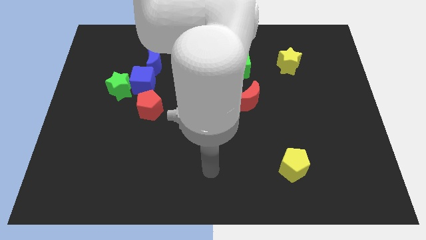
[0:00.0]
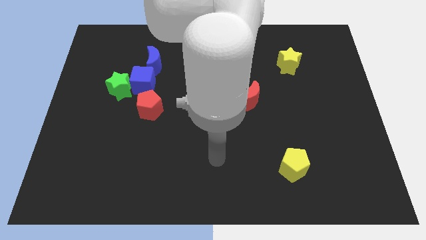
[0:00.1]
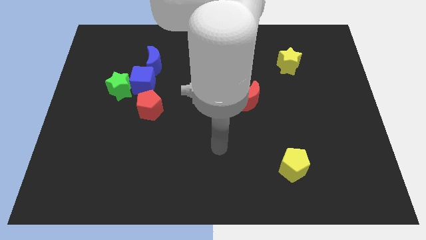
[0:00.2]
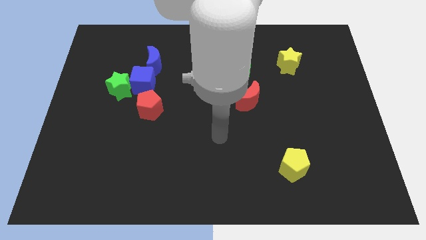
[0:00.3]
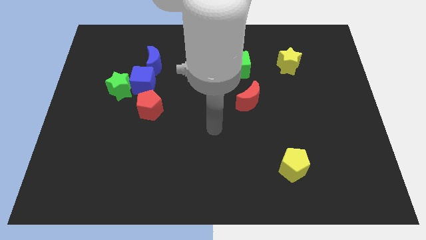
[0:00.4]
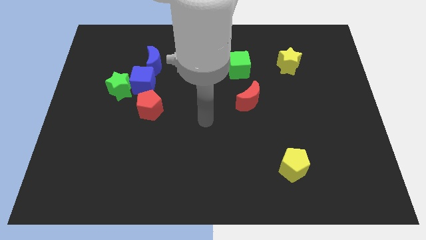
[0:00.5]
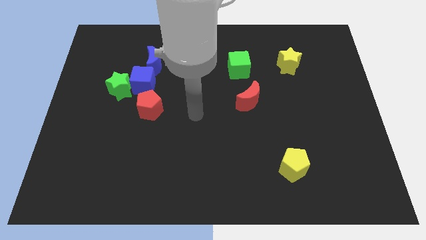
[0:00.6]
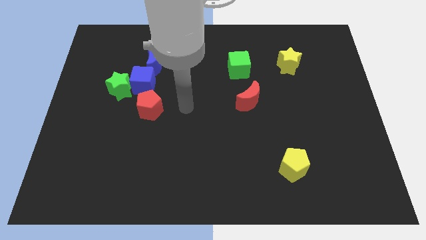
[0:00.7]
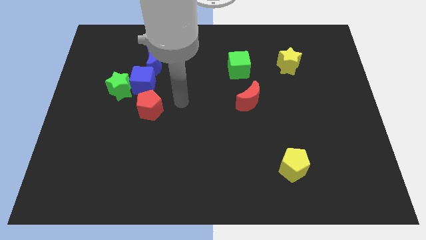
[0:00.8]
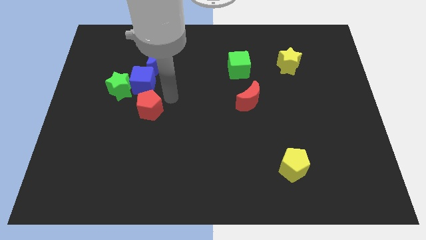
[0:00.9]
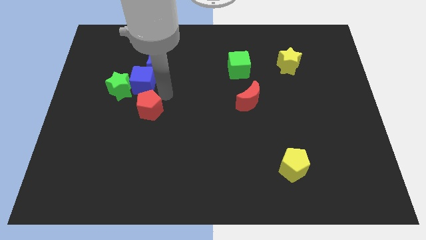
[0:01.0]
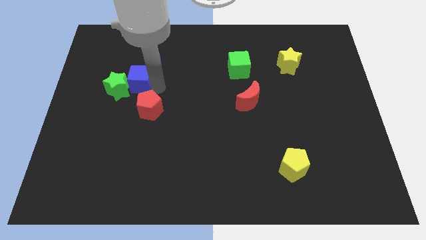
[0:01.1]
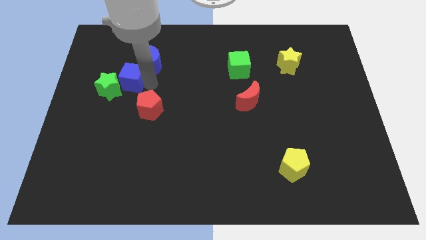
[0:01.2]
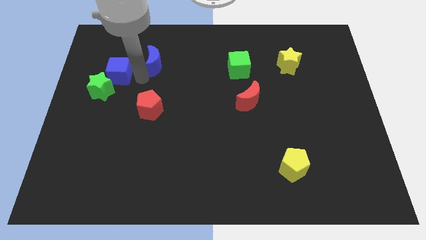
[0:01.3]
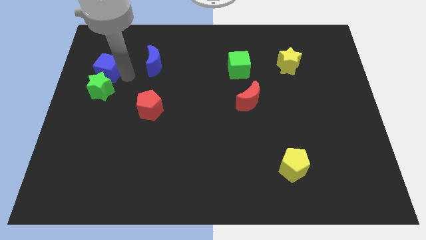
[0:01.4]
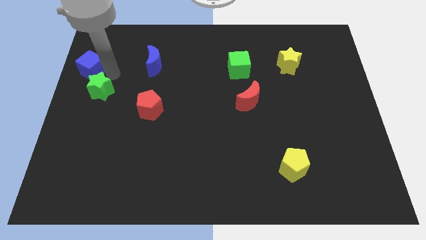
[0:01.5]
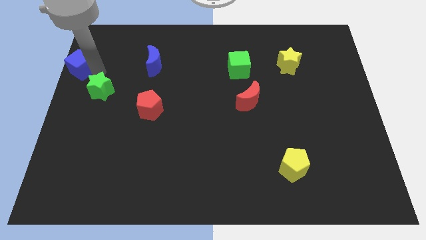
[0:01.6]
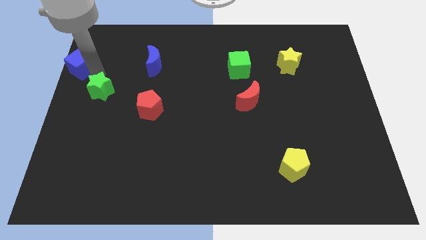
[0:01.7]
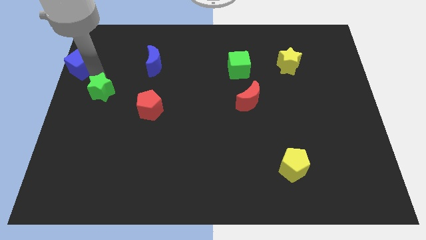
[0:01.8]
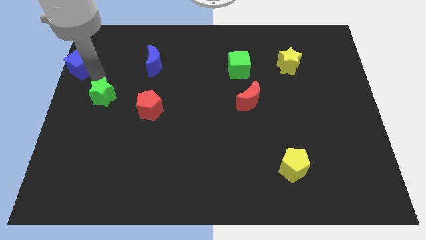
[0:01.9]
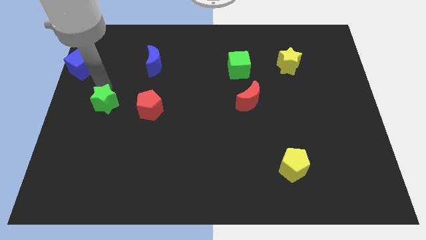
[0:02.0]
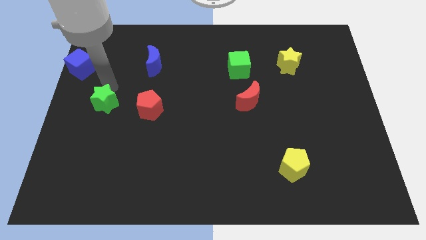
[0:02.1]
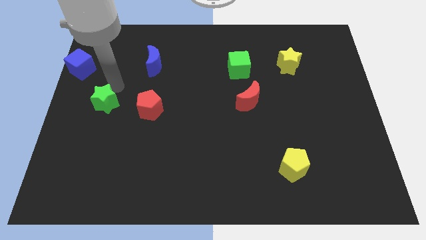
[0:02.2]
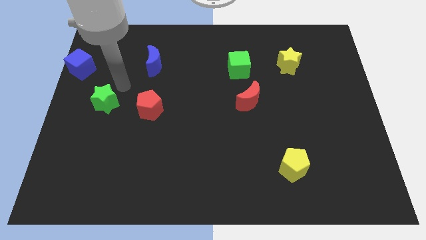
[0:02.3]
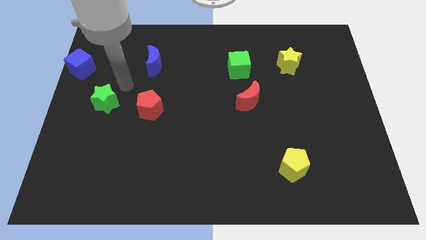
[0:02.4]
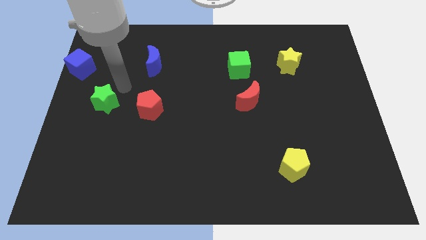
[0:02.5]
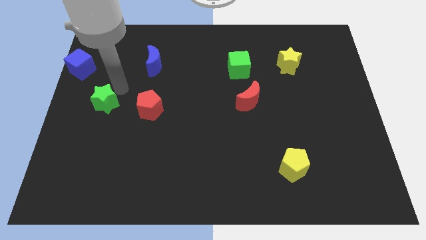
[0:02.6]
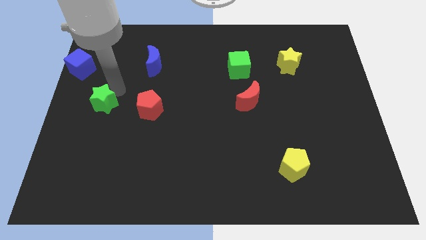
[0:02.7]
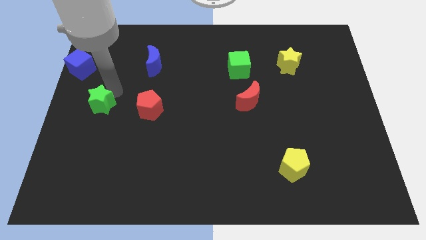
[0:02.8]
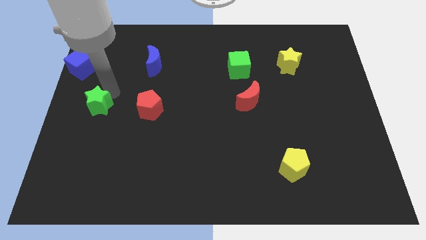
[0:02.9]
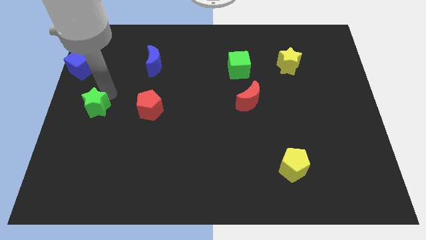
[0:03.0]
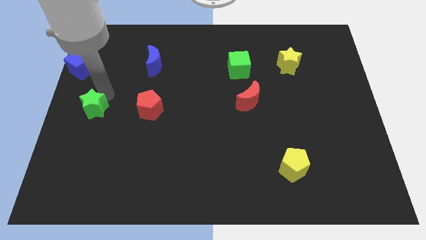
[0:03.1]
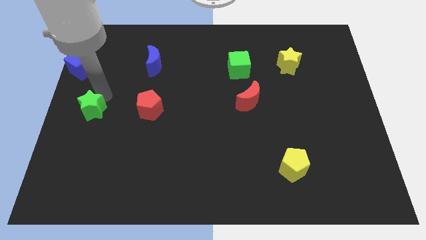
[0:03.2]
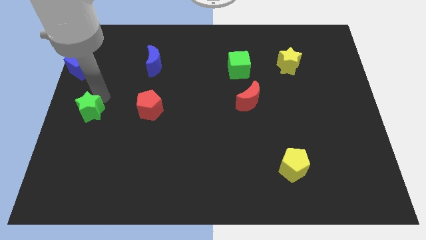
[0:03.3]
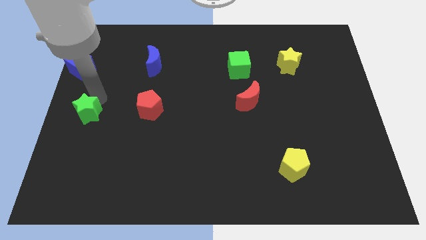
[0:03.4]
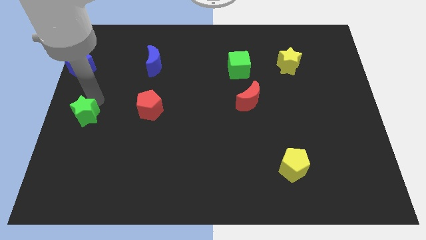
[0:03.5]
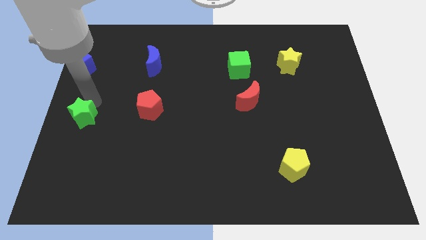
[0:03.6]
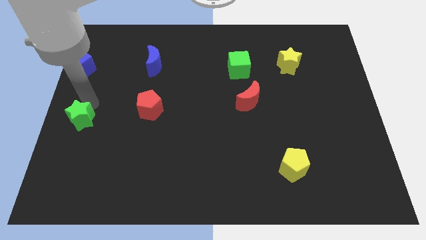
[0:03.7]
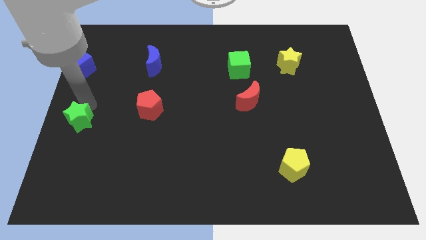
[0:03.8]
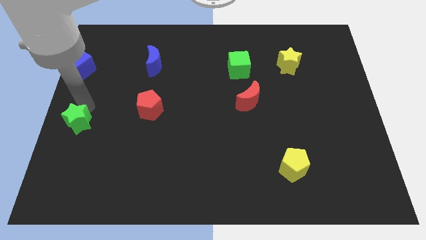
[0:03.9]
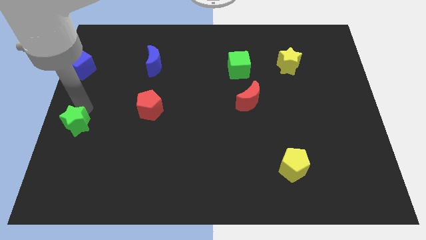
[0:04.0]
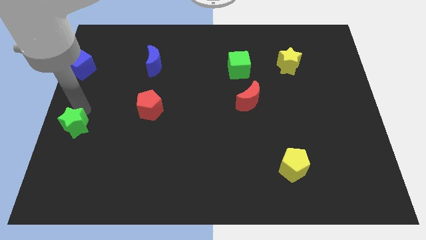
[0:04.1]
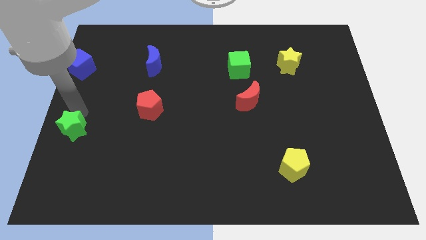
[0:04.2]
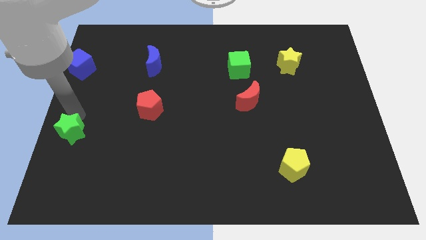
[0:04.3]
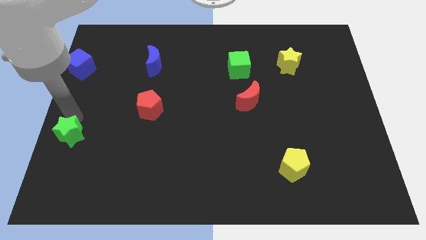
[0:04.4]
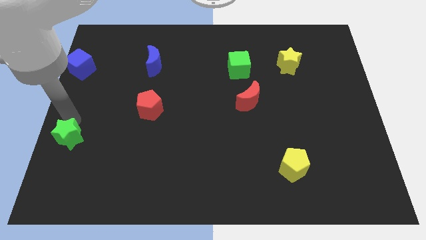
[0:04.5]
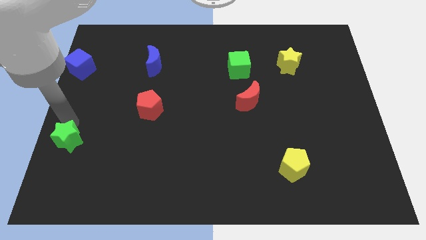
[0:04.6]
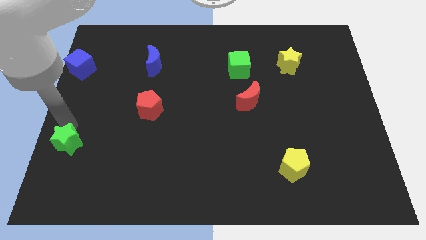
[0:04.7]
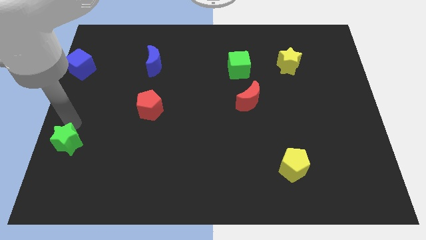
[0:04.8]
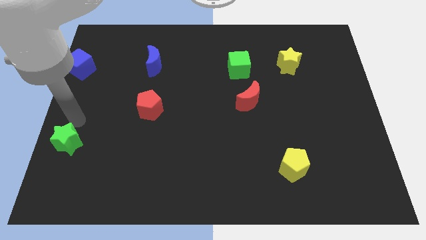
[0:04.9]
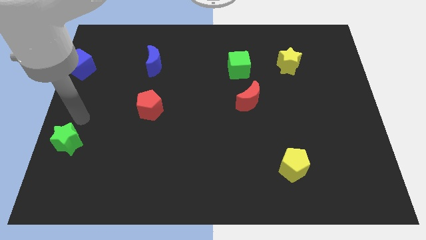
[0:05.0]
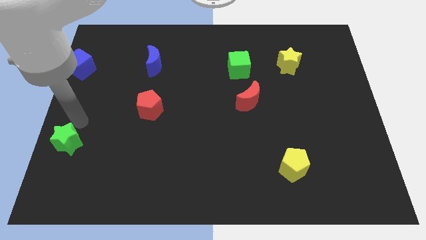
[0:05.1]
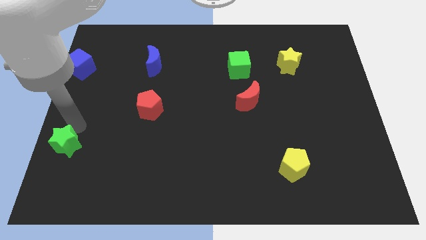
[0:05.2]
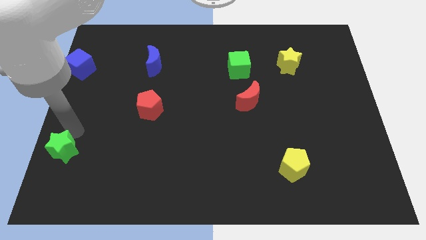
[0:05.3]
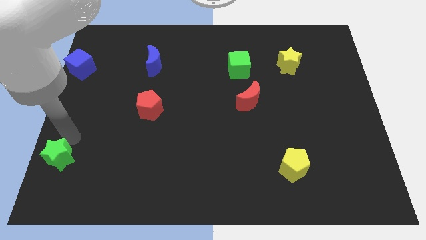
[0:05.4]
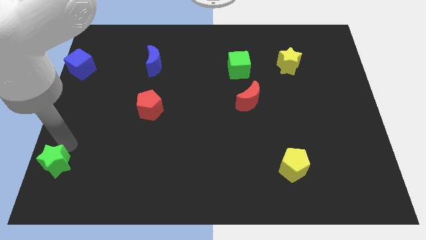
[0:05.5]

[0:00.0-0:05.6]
put the green star to the bottom left

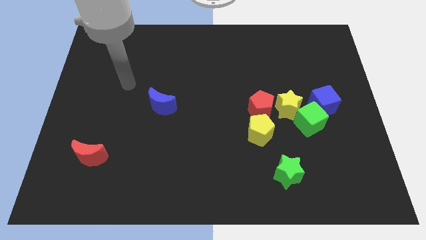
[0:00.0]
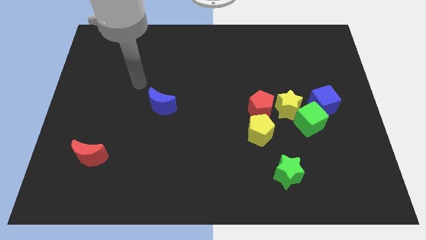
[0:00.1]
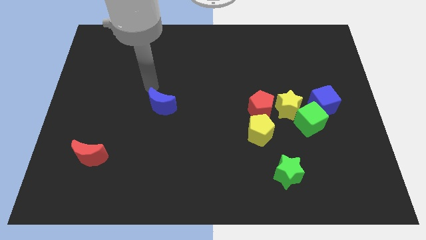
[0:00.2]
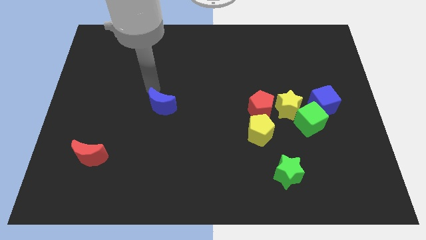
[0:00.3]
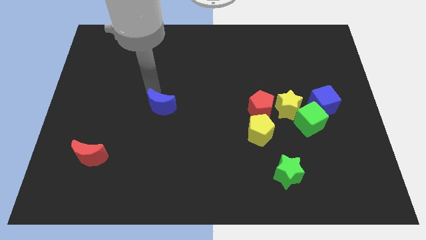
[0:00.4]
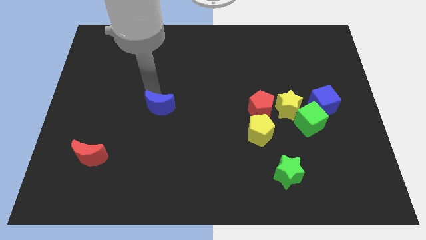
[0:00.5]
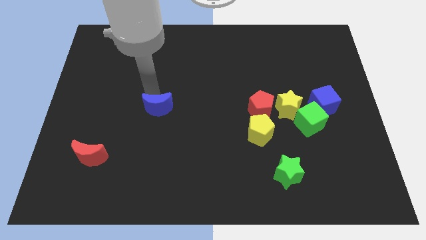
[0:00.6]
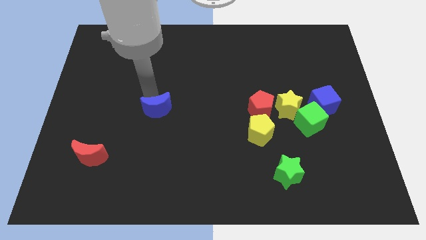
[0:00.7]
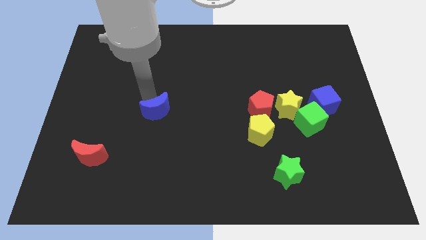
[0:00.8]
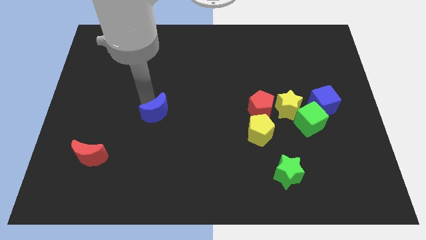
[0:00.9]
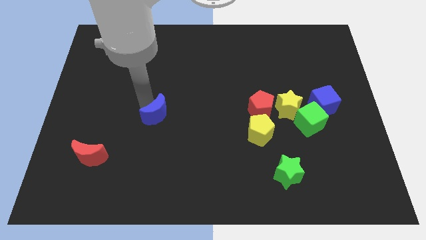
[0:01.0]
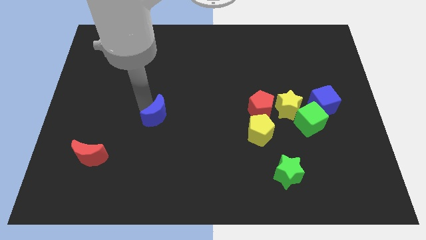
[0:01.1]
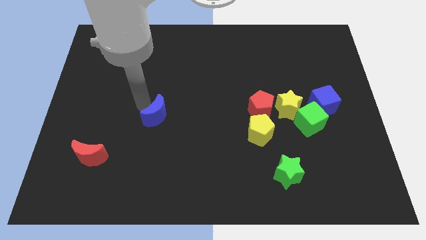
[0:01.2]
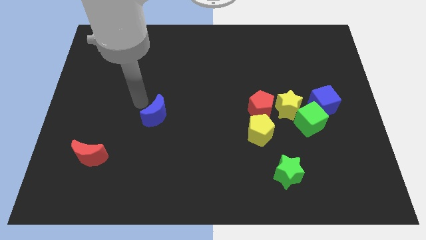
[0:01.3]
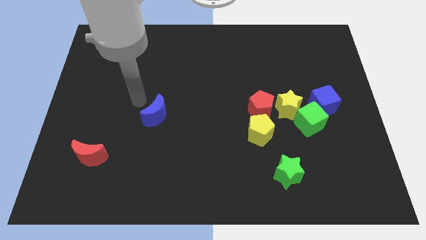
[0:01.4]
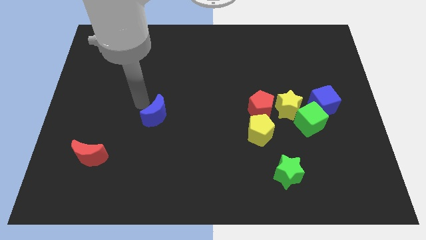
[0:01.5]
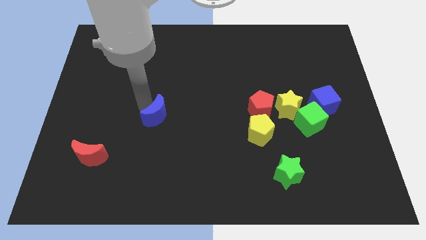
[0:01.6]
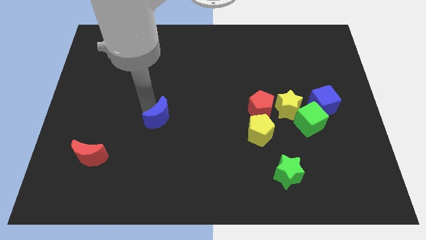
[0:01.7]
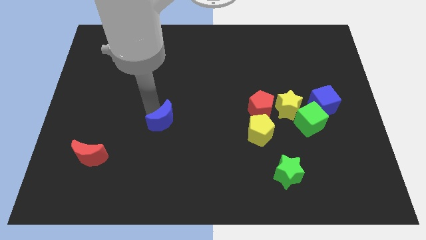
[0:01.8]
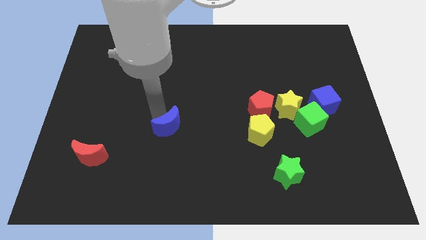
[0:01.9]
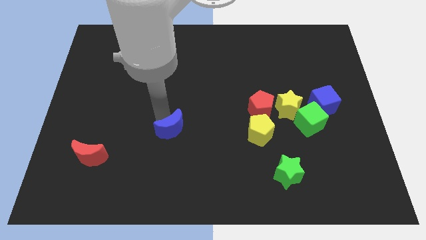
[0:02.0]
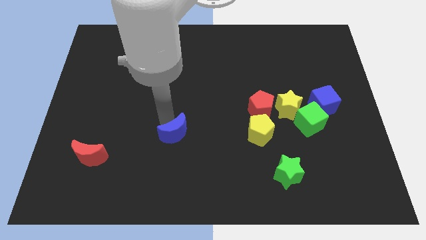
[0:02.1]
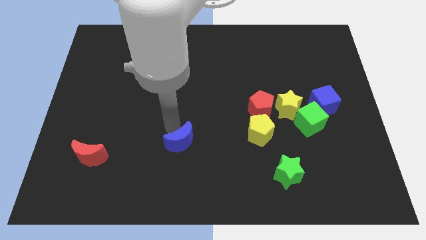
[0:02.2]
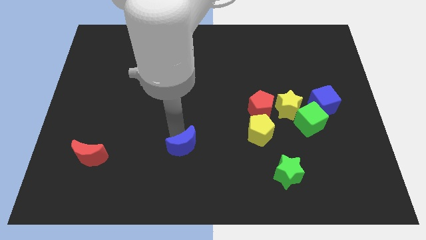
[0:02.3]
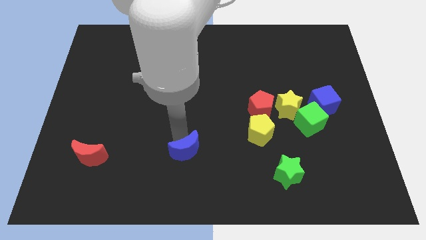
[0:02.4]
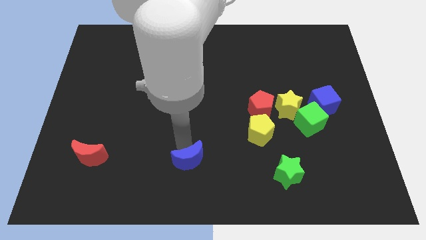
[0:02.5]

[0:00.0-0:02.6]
slide the blue moon to the bottom side
